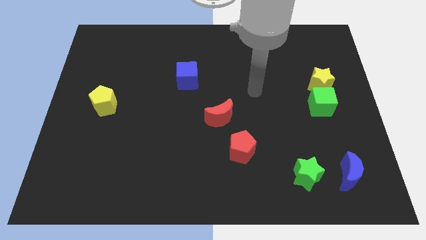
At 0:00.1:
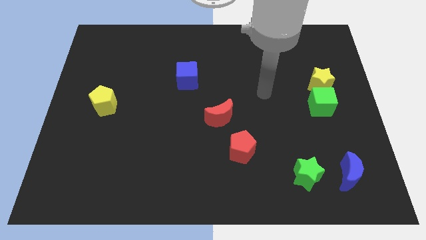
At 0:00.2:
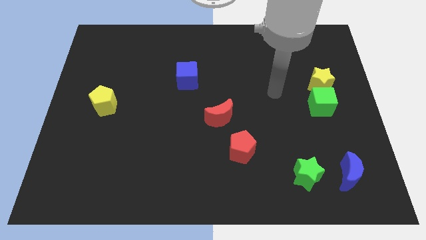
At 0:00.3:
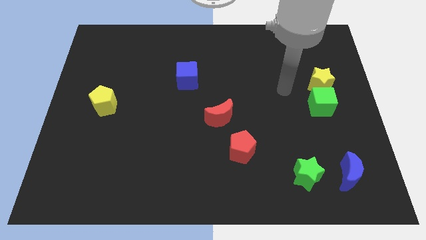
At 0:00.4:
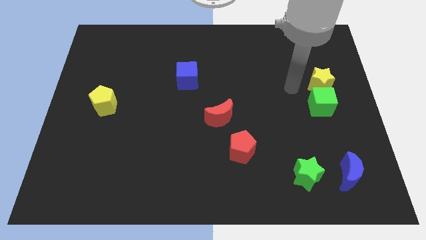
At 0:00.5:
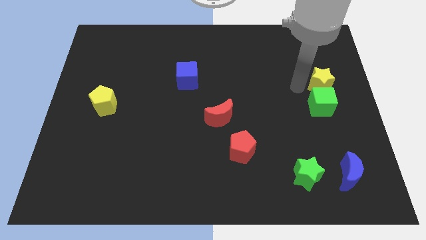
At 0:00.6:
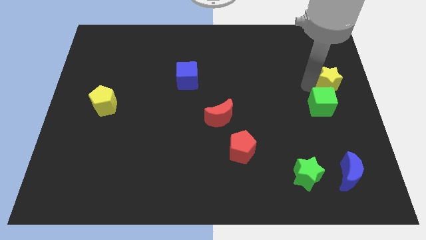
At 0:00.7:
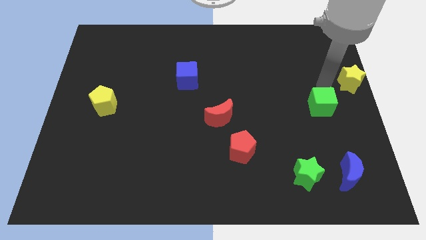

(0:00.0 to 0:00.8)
pull the green cube apart from the yellow star

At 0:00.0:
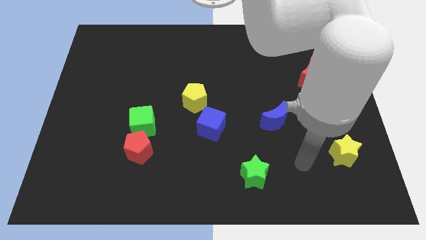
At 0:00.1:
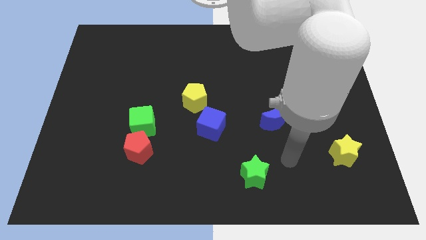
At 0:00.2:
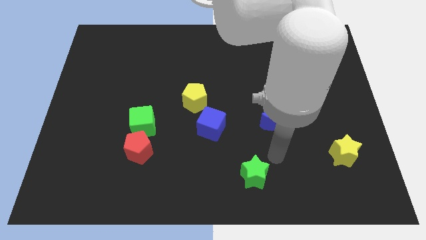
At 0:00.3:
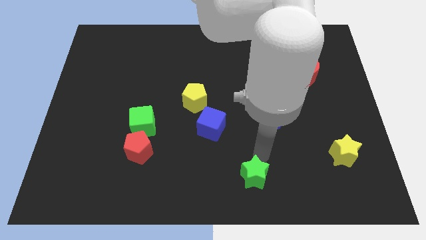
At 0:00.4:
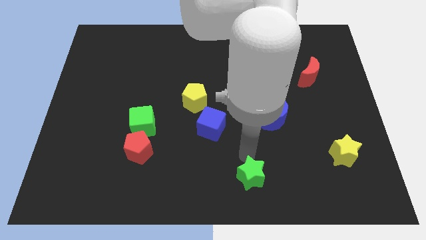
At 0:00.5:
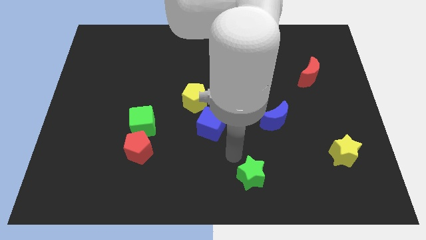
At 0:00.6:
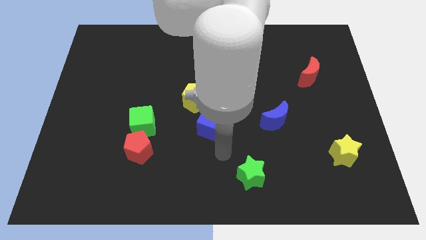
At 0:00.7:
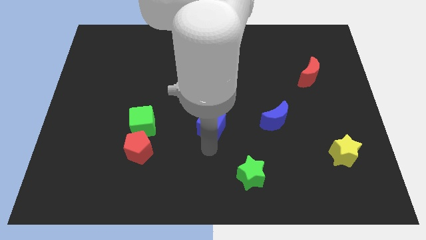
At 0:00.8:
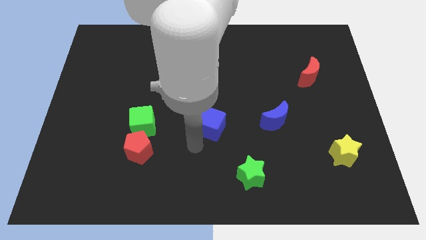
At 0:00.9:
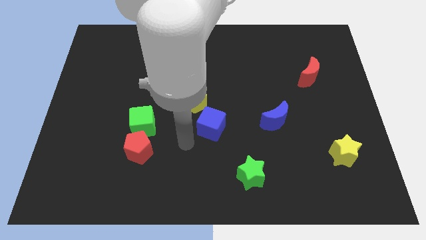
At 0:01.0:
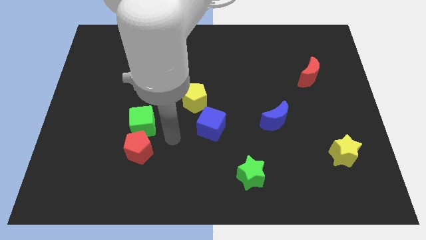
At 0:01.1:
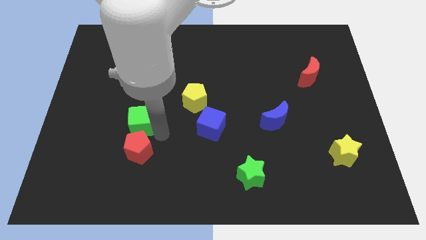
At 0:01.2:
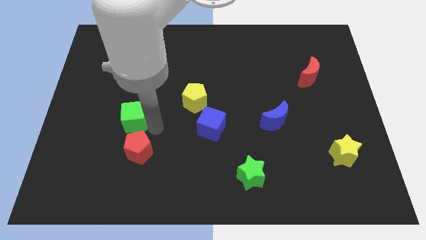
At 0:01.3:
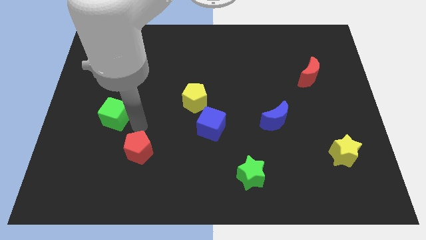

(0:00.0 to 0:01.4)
pull the red pentagon apart from the green cube

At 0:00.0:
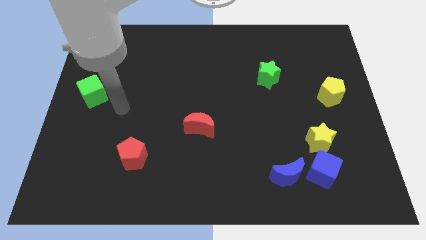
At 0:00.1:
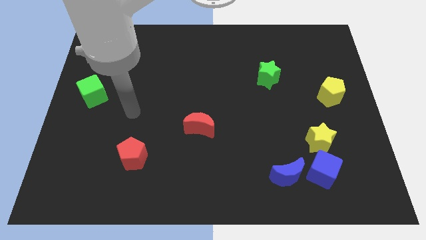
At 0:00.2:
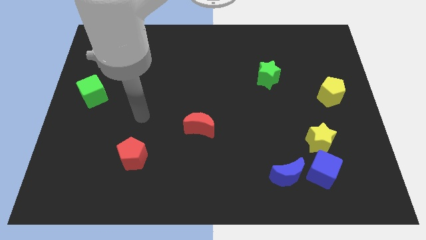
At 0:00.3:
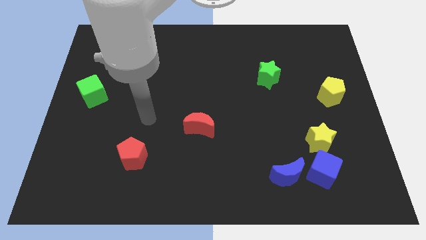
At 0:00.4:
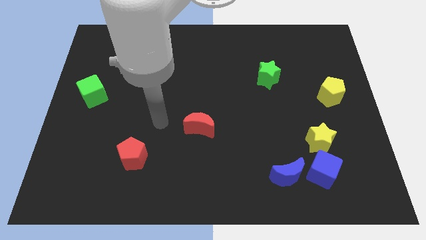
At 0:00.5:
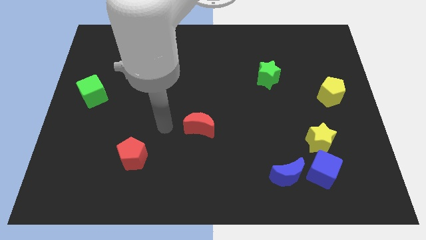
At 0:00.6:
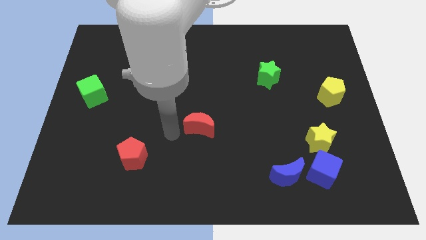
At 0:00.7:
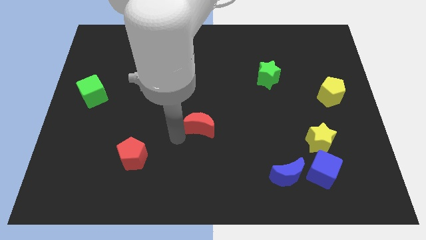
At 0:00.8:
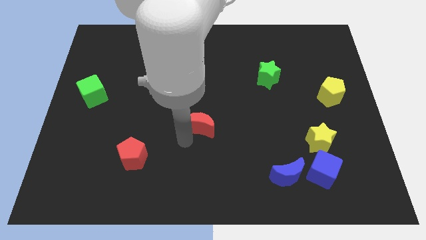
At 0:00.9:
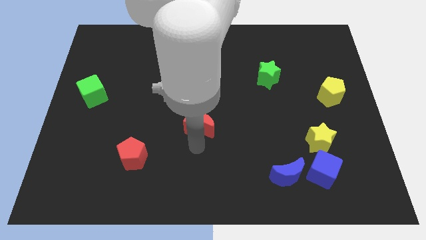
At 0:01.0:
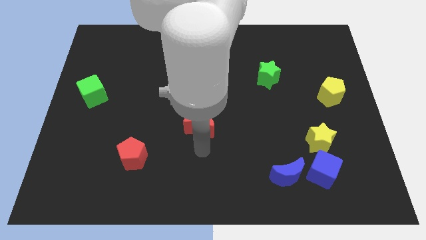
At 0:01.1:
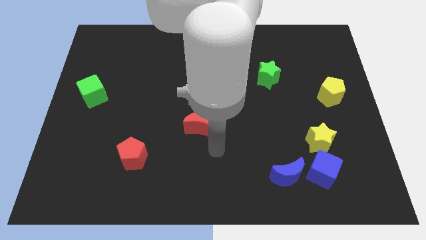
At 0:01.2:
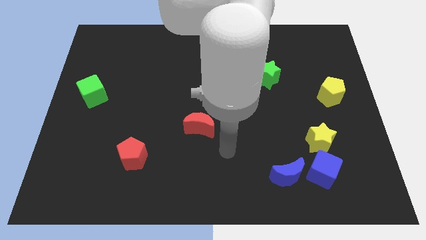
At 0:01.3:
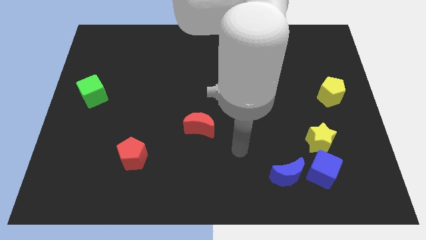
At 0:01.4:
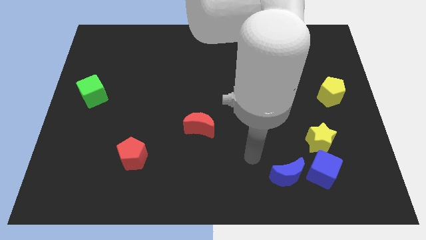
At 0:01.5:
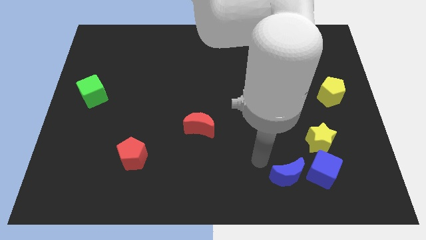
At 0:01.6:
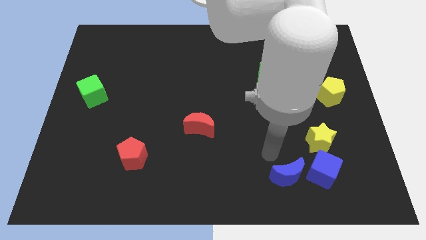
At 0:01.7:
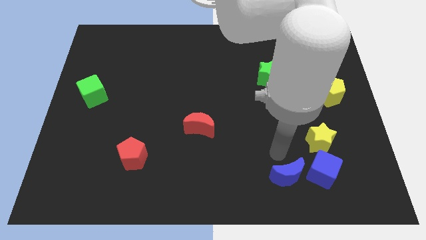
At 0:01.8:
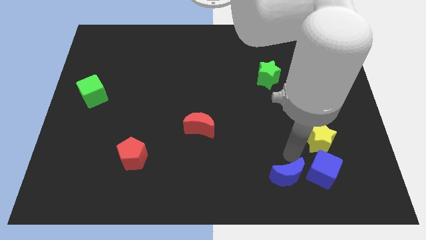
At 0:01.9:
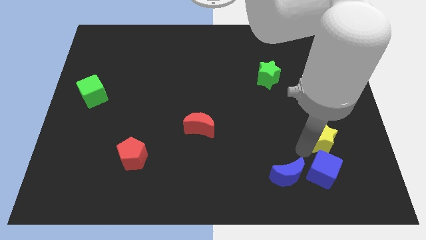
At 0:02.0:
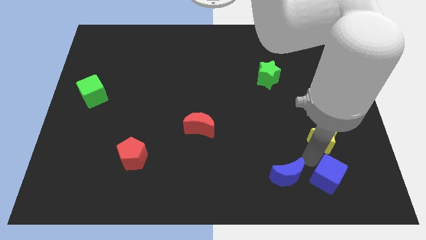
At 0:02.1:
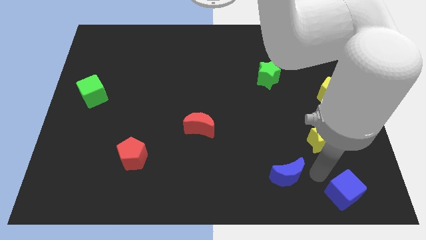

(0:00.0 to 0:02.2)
pull the blue moon apart from the blue cube

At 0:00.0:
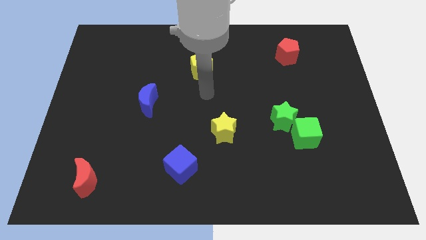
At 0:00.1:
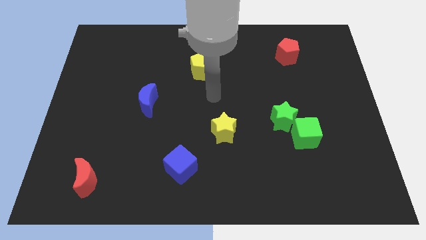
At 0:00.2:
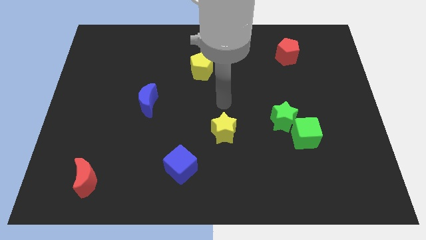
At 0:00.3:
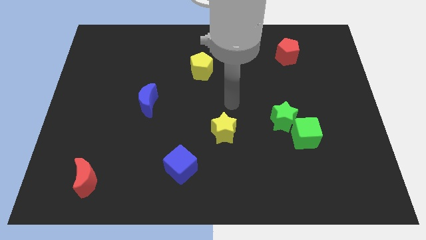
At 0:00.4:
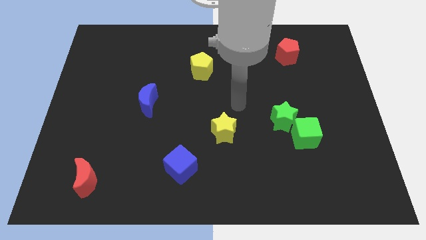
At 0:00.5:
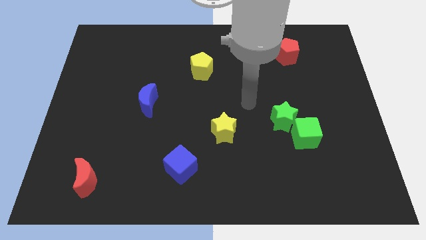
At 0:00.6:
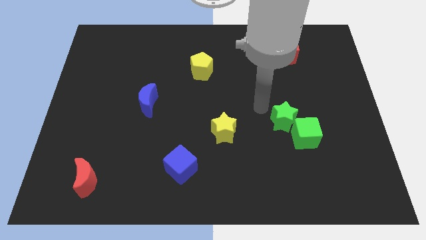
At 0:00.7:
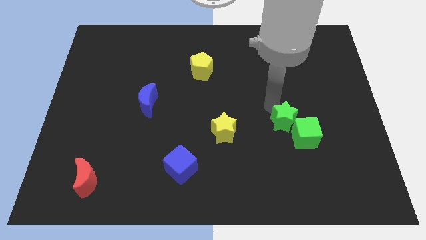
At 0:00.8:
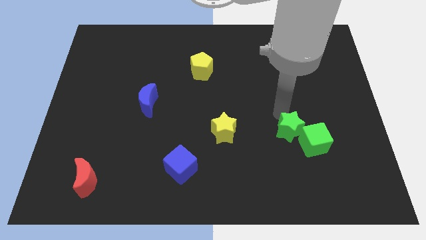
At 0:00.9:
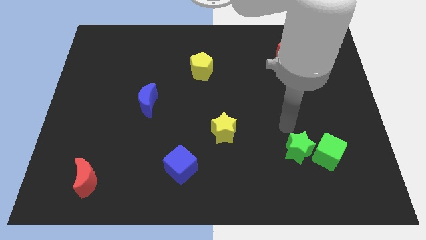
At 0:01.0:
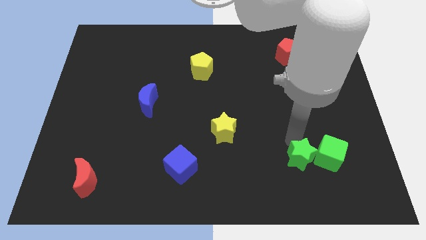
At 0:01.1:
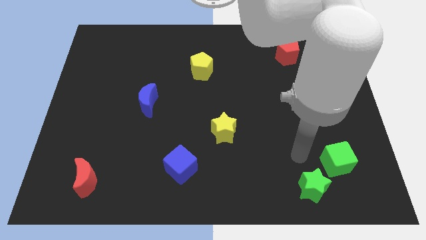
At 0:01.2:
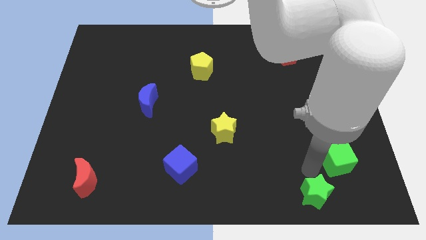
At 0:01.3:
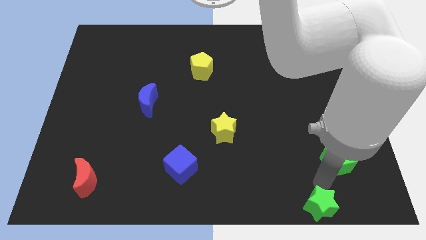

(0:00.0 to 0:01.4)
separate the green cube from the green star

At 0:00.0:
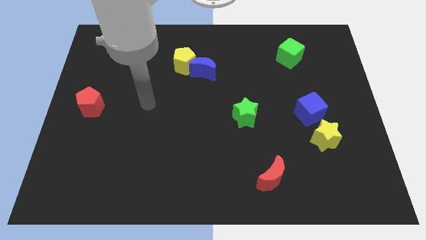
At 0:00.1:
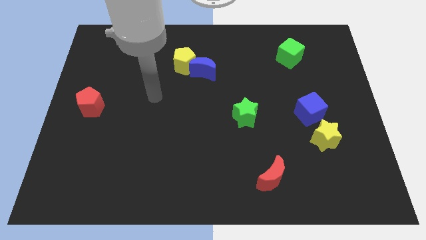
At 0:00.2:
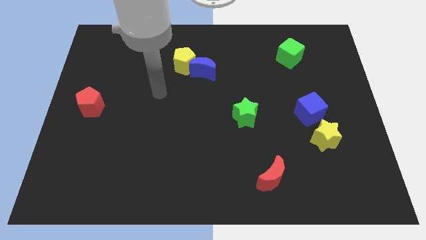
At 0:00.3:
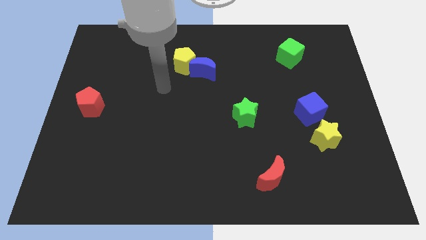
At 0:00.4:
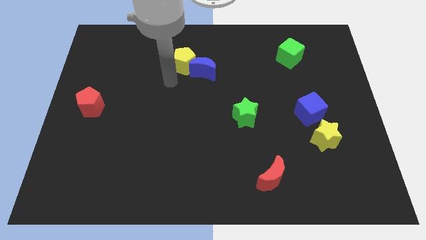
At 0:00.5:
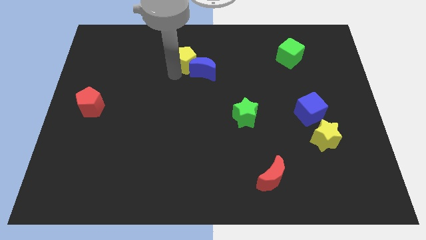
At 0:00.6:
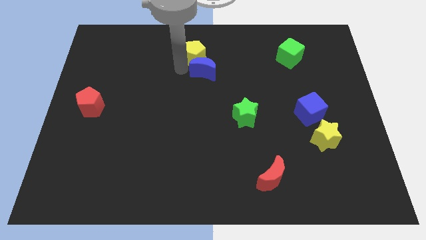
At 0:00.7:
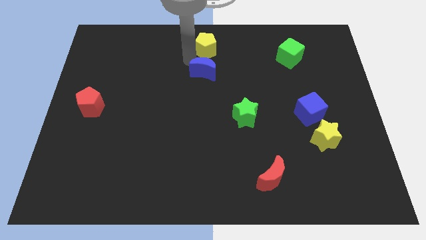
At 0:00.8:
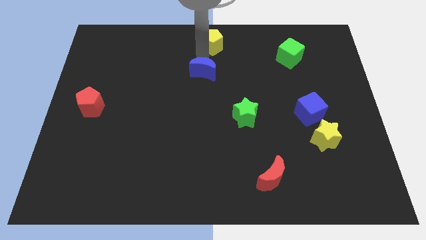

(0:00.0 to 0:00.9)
separate the blue moon from the yellow pentagon

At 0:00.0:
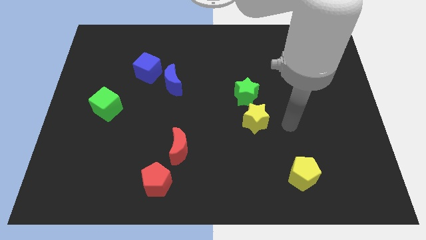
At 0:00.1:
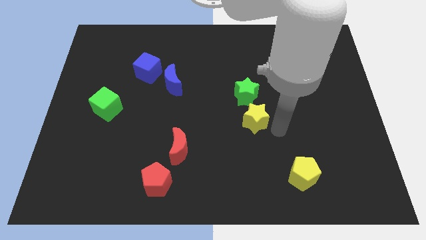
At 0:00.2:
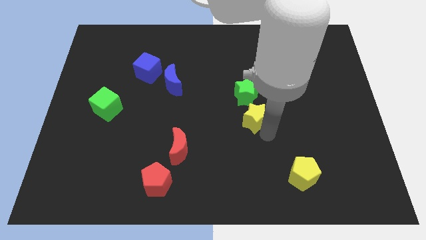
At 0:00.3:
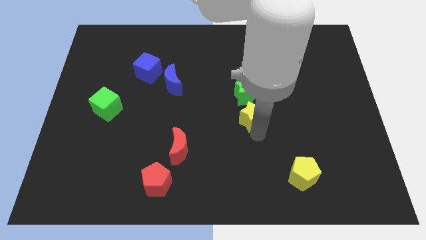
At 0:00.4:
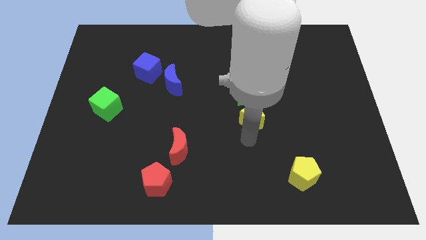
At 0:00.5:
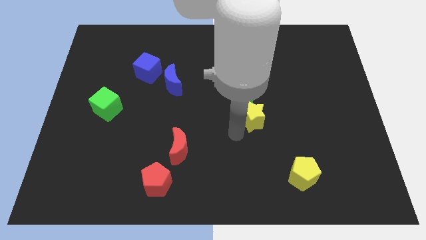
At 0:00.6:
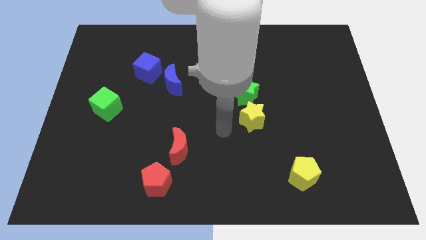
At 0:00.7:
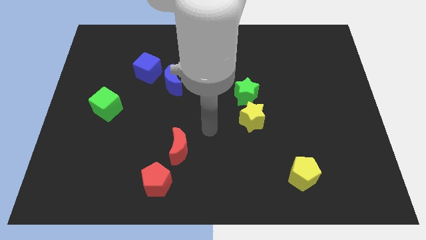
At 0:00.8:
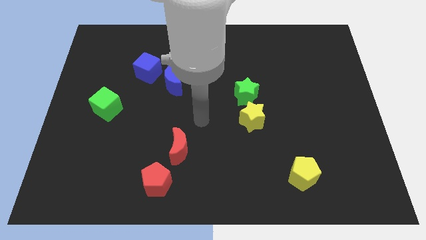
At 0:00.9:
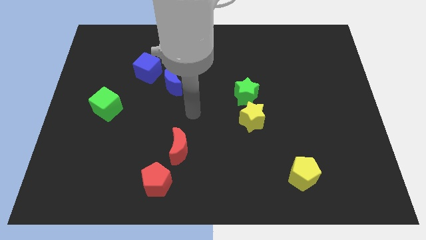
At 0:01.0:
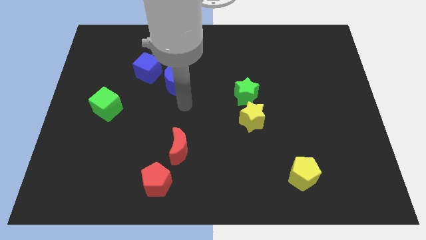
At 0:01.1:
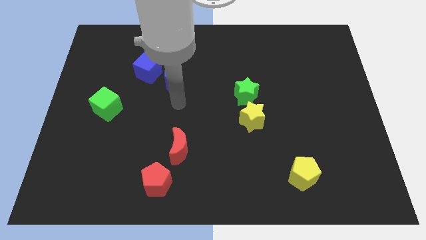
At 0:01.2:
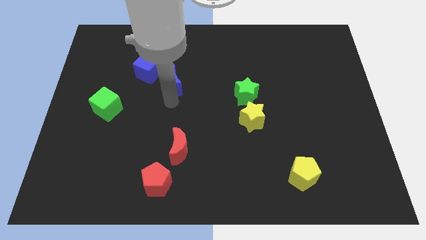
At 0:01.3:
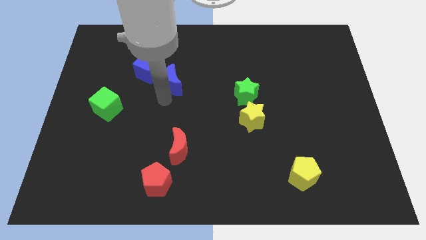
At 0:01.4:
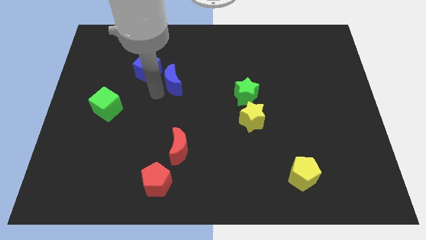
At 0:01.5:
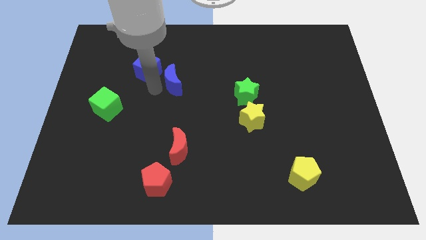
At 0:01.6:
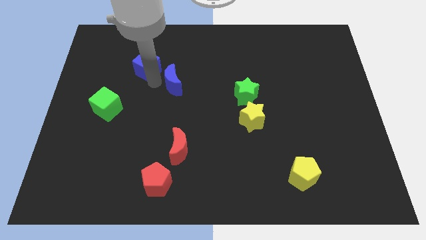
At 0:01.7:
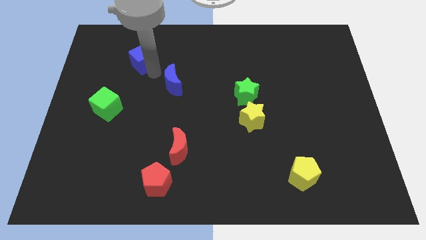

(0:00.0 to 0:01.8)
separate the blue moon from the blue cube

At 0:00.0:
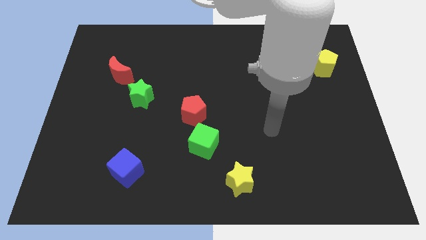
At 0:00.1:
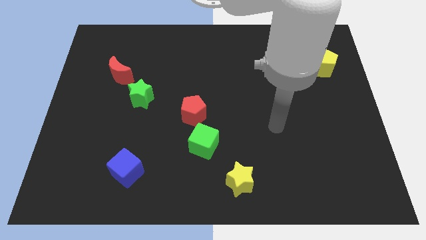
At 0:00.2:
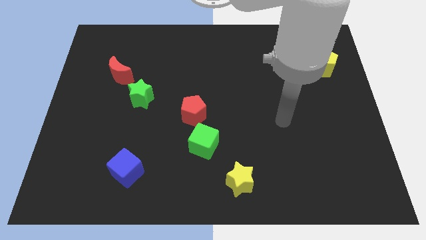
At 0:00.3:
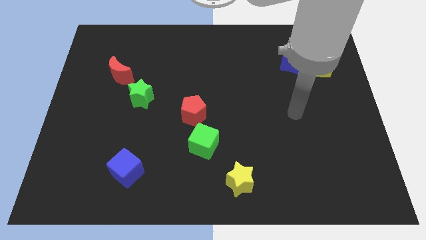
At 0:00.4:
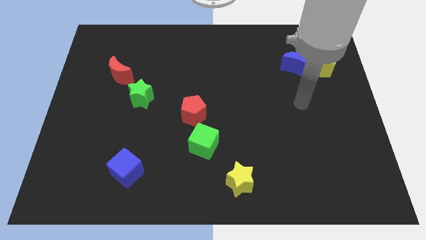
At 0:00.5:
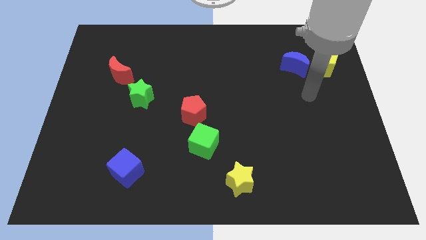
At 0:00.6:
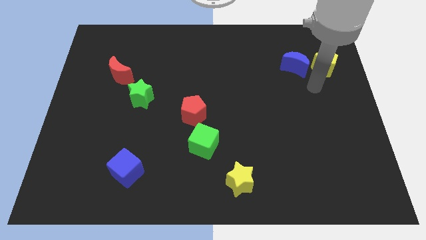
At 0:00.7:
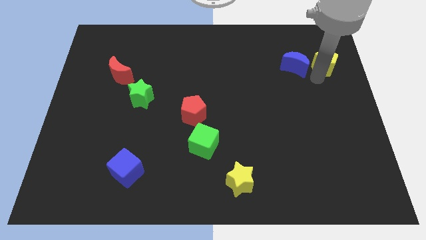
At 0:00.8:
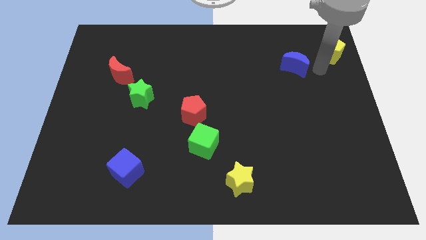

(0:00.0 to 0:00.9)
move the blue moon away from the yellow pentagon
